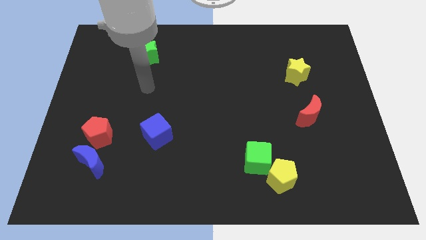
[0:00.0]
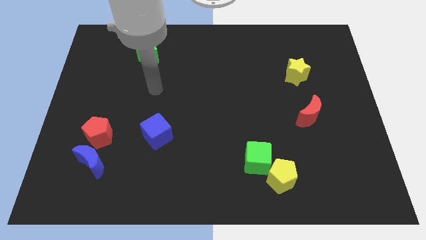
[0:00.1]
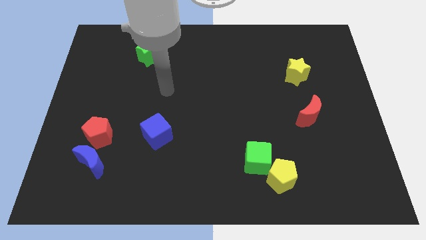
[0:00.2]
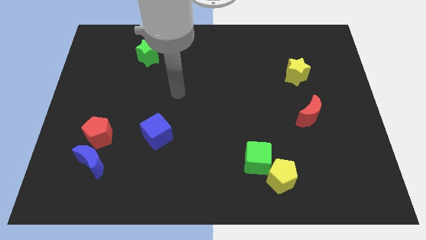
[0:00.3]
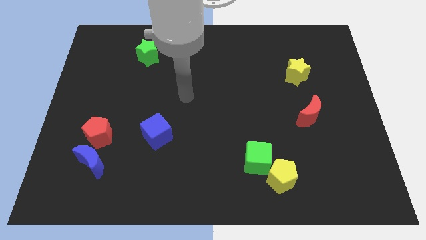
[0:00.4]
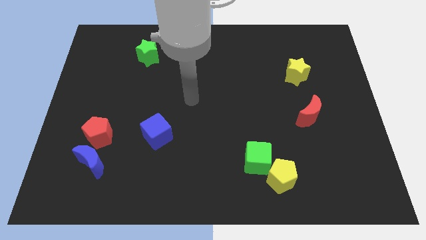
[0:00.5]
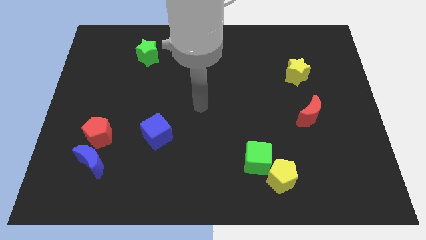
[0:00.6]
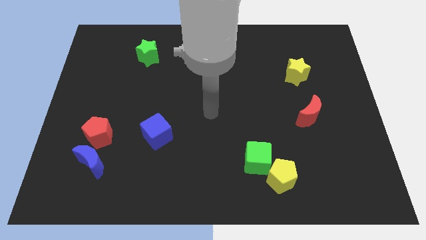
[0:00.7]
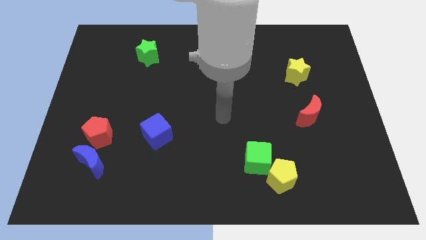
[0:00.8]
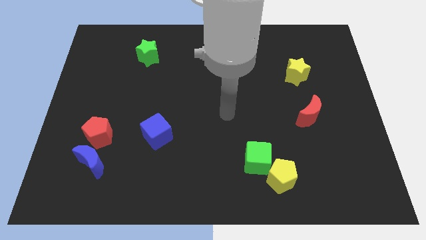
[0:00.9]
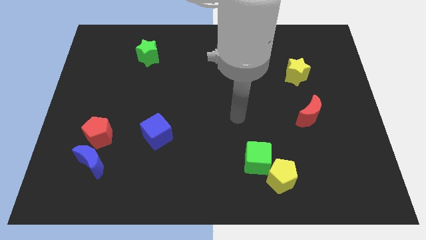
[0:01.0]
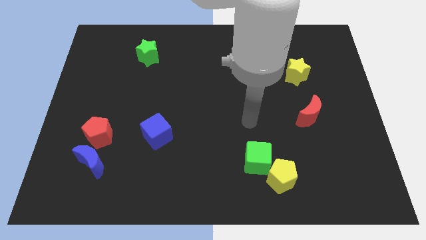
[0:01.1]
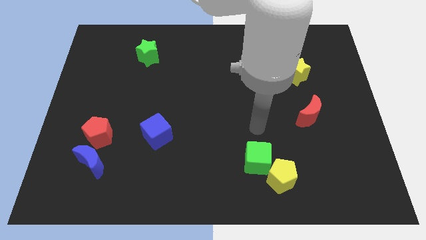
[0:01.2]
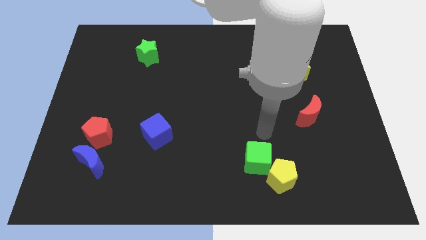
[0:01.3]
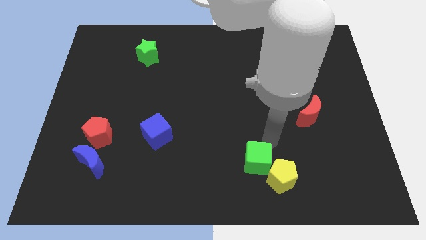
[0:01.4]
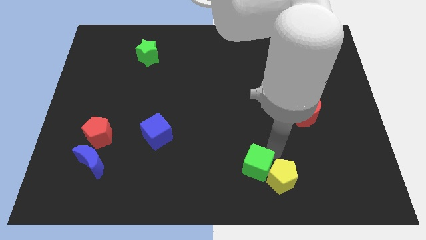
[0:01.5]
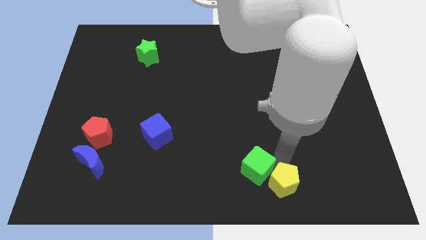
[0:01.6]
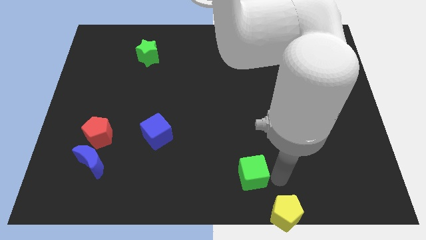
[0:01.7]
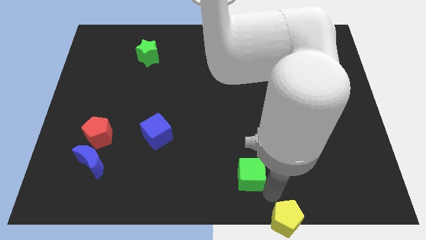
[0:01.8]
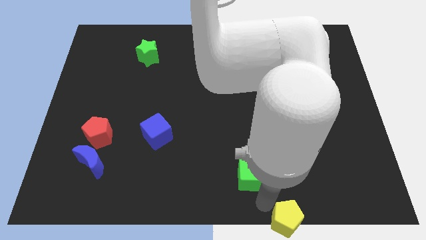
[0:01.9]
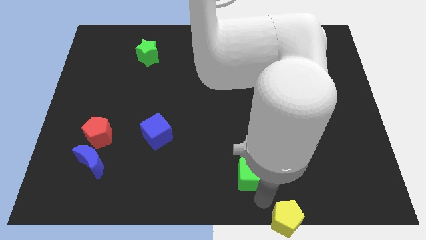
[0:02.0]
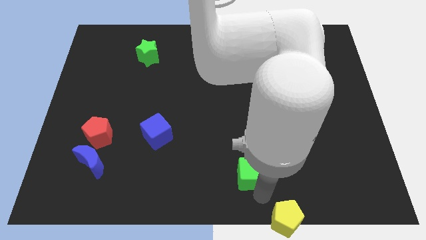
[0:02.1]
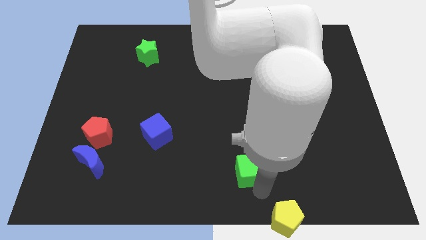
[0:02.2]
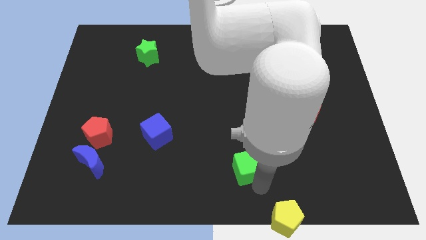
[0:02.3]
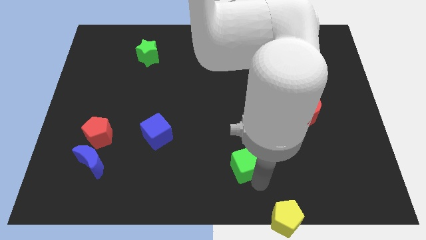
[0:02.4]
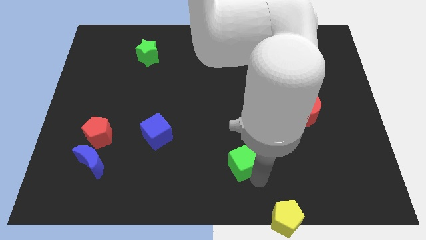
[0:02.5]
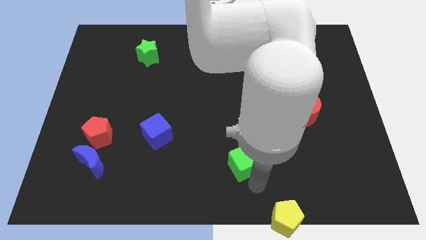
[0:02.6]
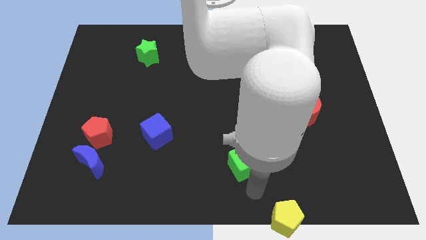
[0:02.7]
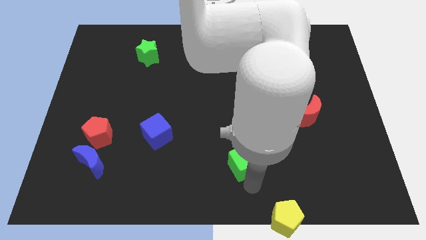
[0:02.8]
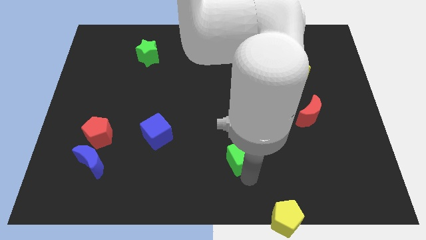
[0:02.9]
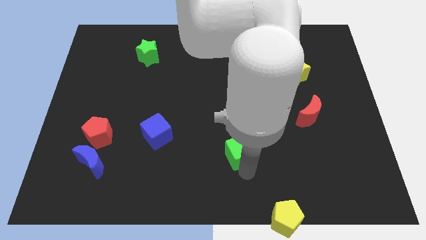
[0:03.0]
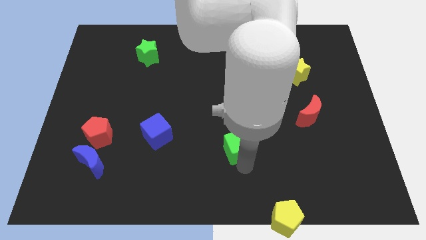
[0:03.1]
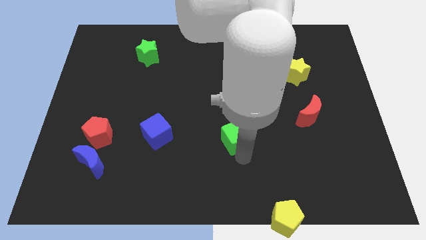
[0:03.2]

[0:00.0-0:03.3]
push the green cube somewhat up and to the left diagonally

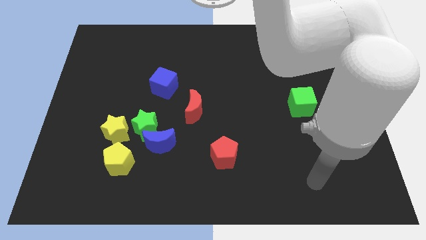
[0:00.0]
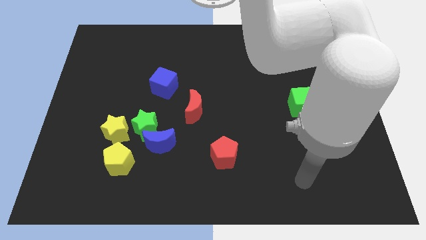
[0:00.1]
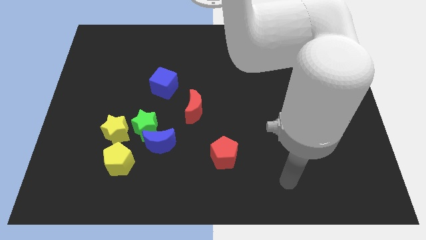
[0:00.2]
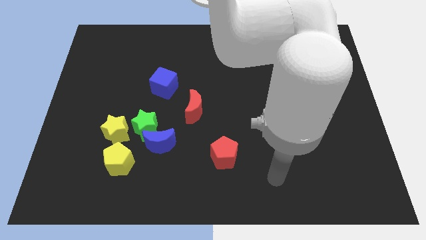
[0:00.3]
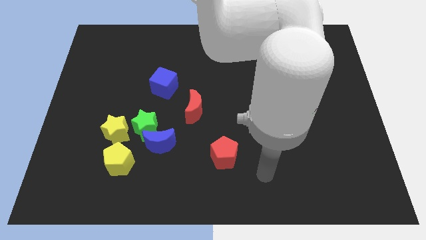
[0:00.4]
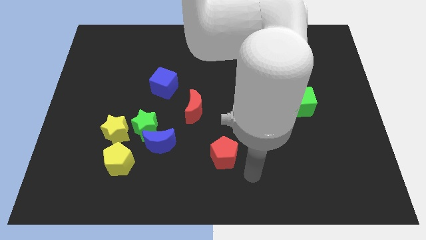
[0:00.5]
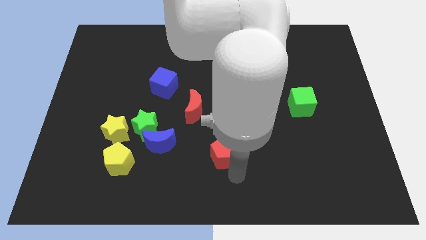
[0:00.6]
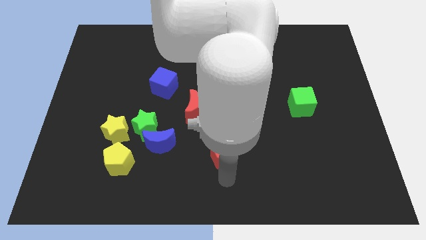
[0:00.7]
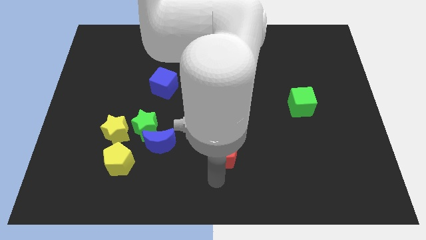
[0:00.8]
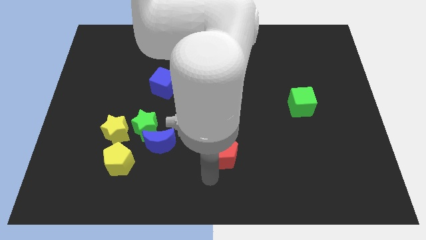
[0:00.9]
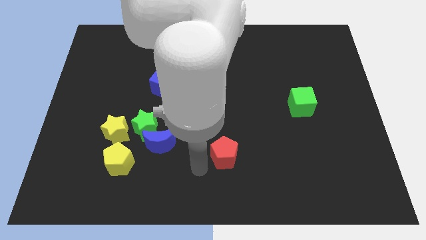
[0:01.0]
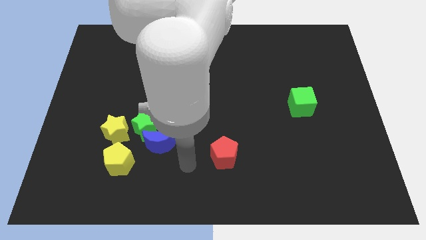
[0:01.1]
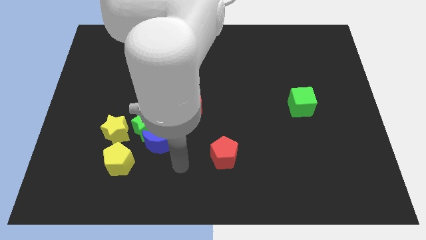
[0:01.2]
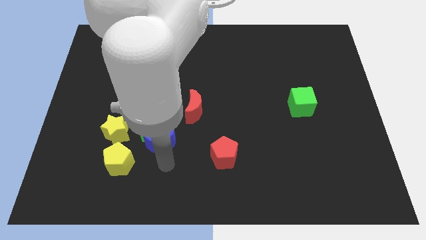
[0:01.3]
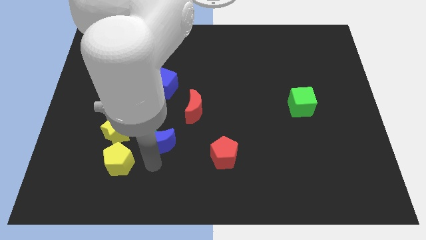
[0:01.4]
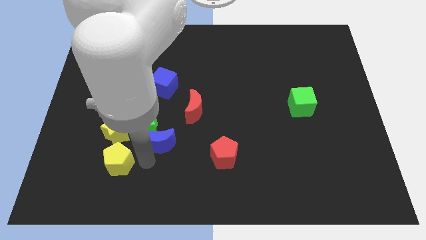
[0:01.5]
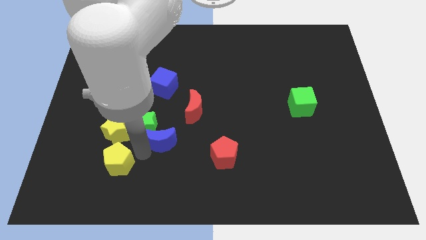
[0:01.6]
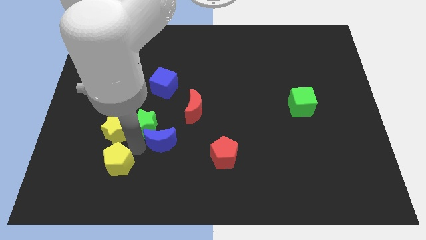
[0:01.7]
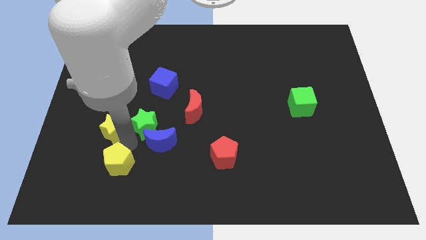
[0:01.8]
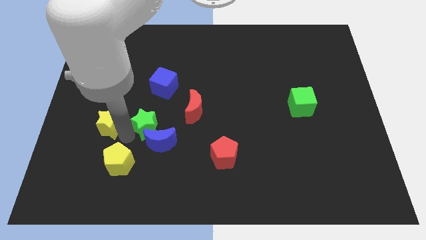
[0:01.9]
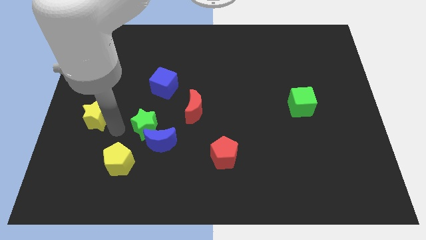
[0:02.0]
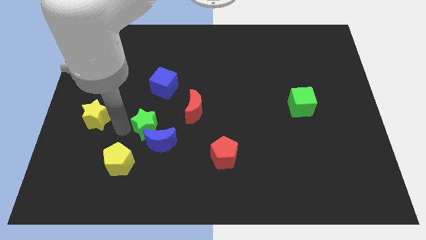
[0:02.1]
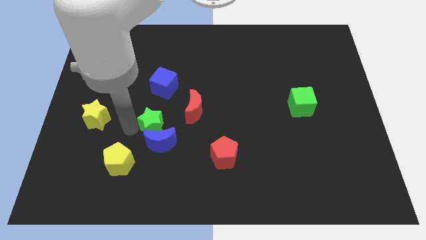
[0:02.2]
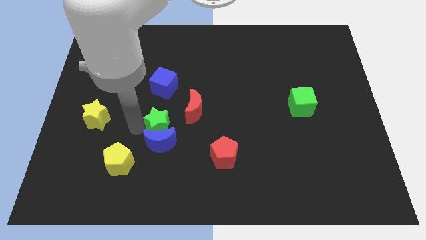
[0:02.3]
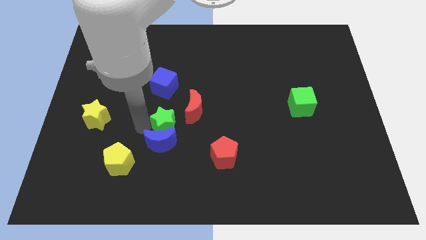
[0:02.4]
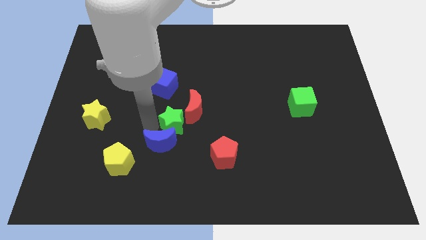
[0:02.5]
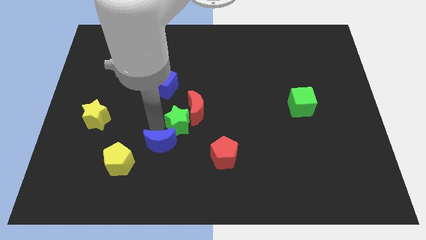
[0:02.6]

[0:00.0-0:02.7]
slide the green star a bit to the right

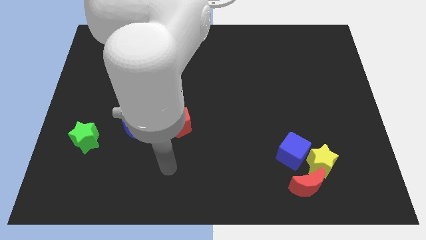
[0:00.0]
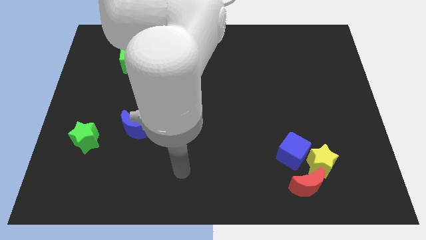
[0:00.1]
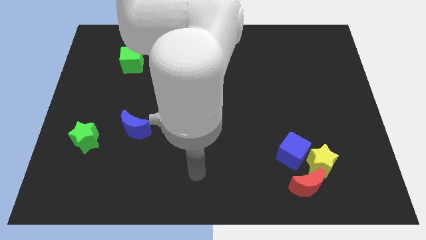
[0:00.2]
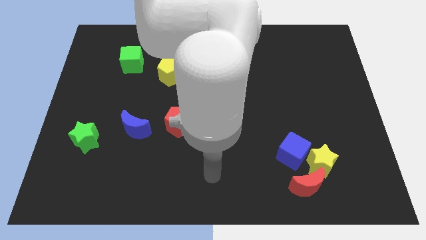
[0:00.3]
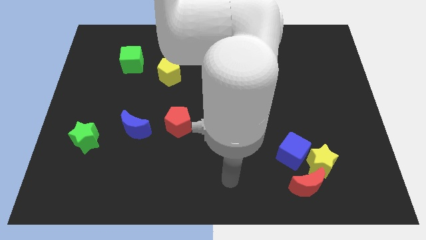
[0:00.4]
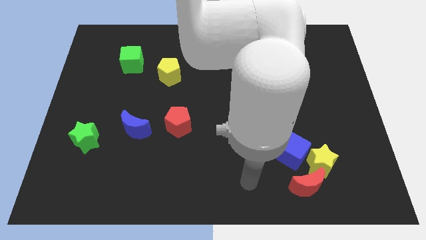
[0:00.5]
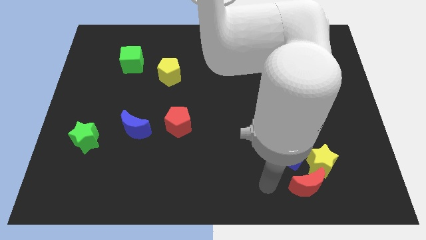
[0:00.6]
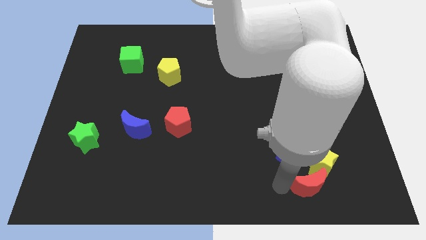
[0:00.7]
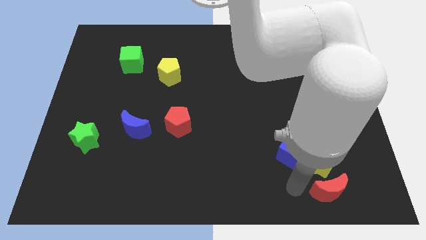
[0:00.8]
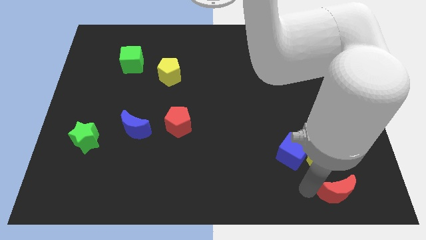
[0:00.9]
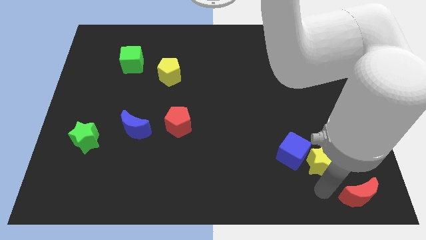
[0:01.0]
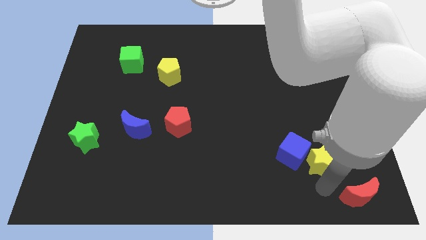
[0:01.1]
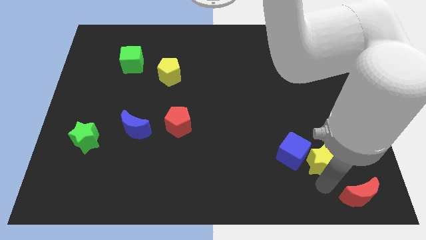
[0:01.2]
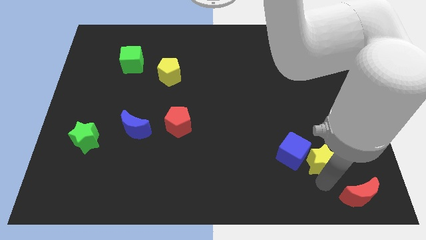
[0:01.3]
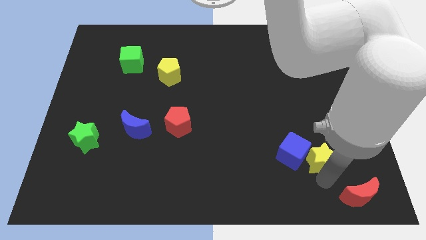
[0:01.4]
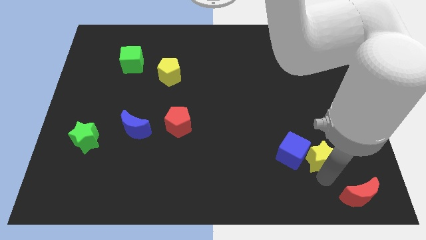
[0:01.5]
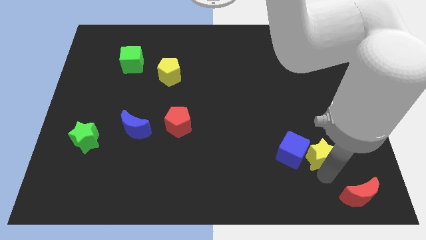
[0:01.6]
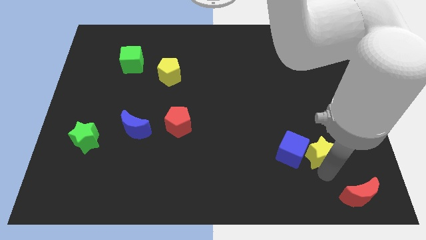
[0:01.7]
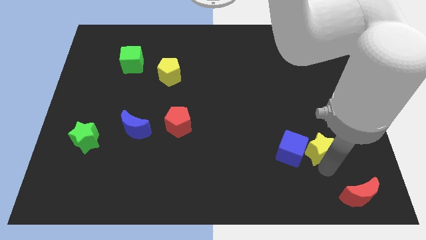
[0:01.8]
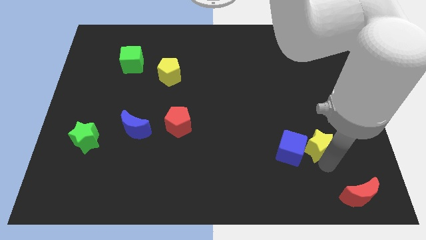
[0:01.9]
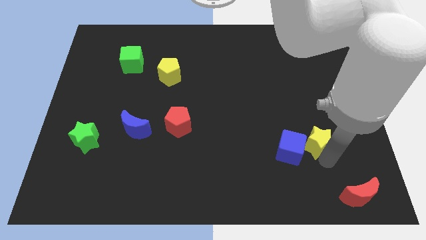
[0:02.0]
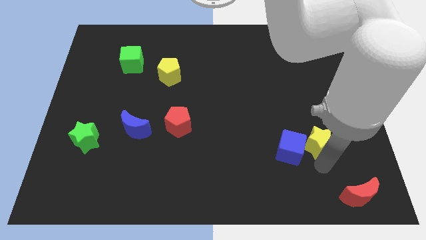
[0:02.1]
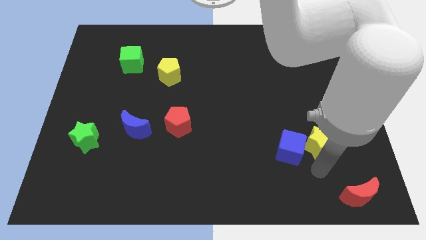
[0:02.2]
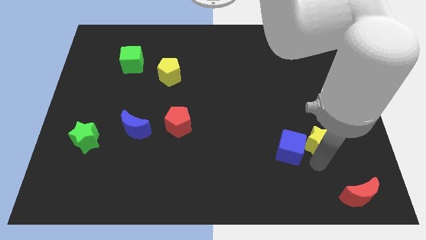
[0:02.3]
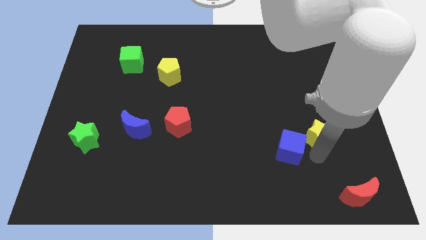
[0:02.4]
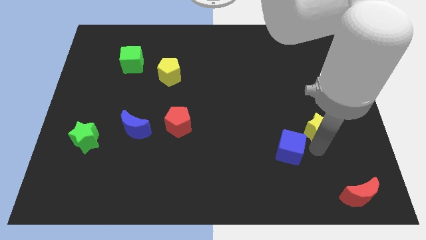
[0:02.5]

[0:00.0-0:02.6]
slightly slide the yellow star up
